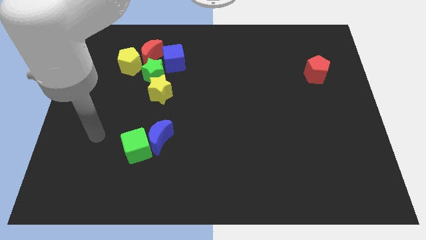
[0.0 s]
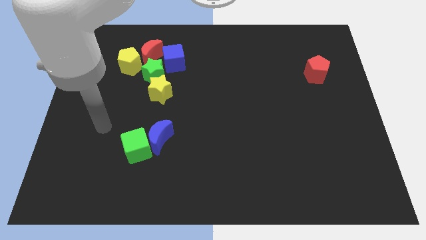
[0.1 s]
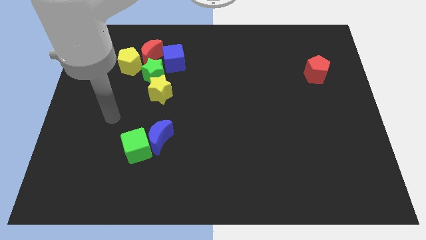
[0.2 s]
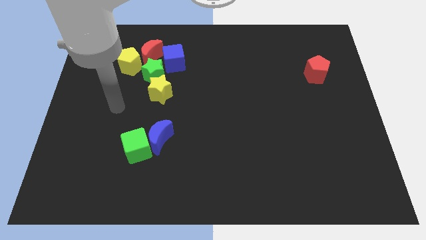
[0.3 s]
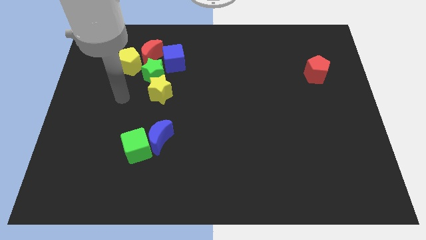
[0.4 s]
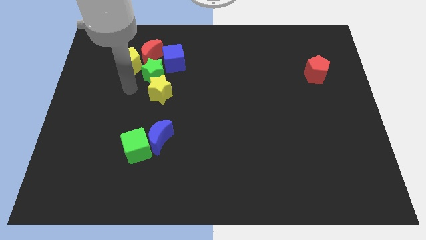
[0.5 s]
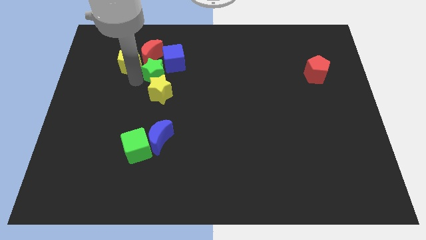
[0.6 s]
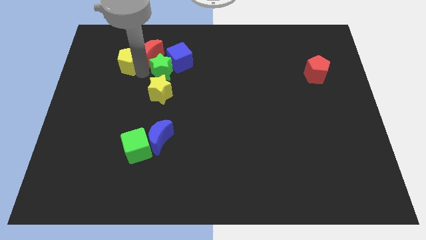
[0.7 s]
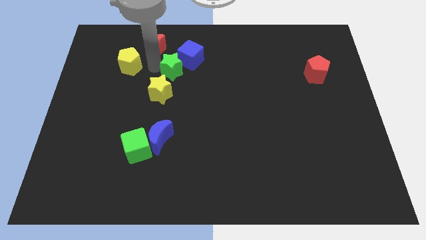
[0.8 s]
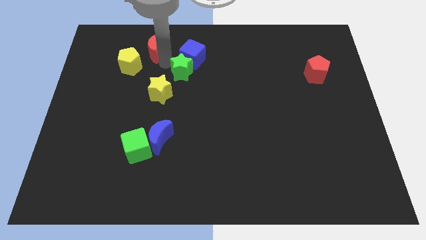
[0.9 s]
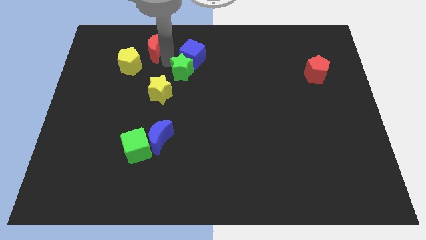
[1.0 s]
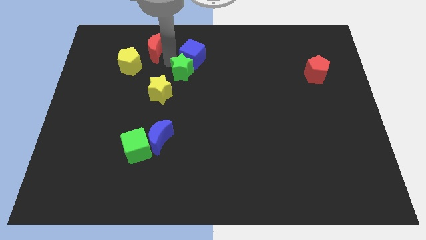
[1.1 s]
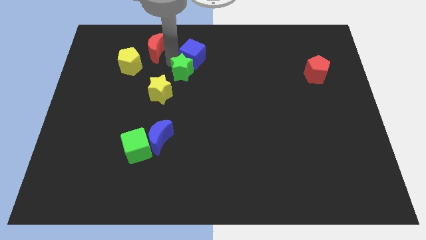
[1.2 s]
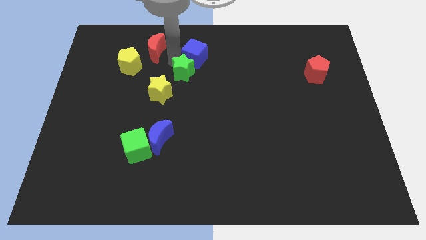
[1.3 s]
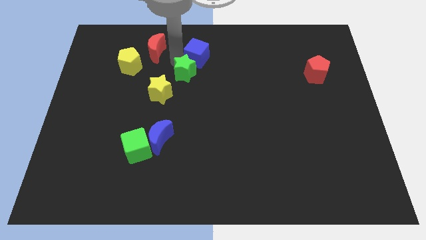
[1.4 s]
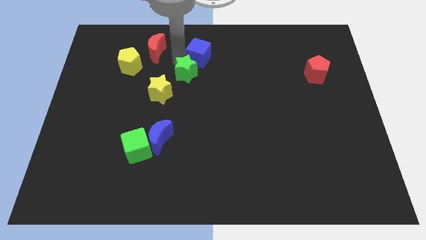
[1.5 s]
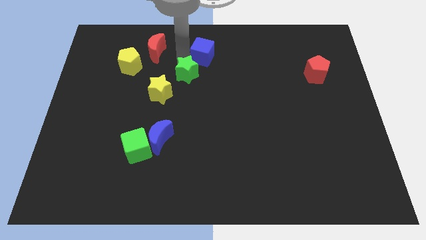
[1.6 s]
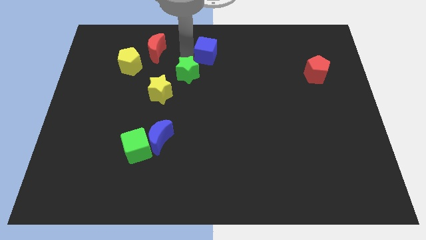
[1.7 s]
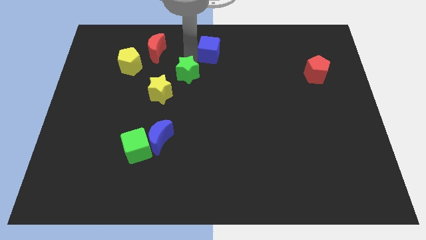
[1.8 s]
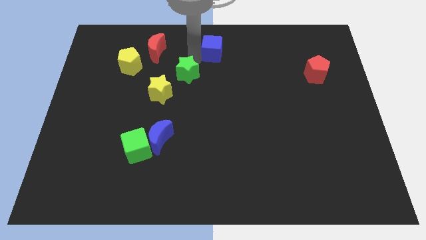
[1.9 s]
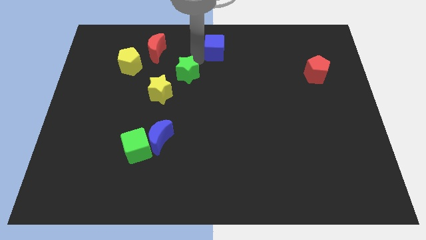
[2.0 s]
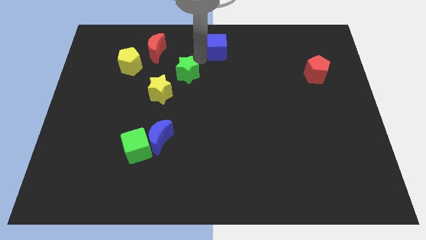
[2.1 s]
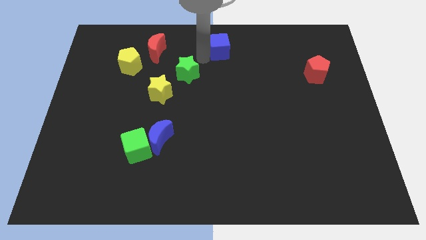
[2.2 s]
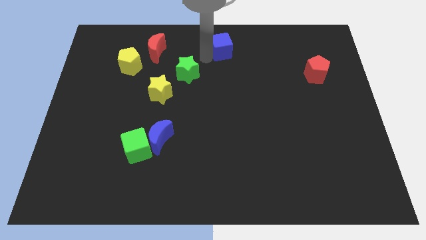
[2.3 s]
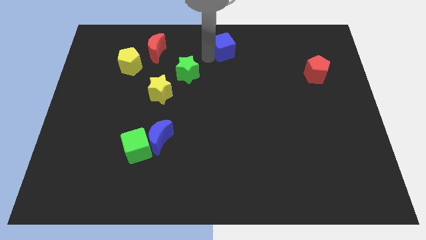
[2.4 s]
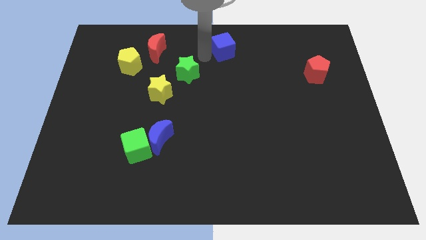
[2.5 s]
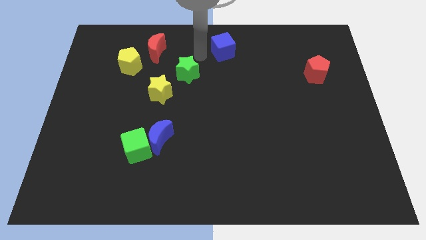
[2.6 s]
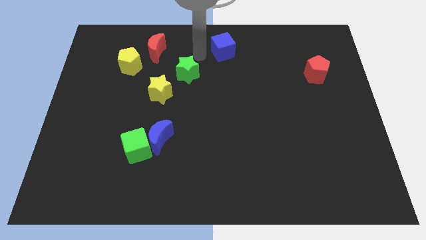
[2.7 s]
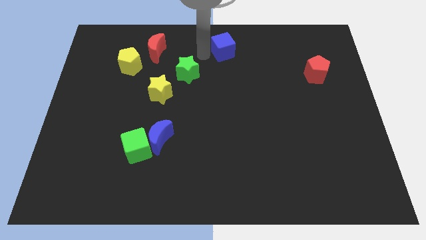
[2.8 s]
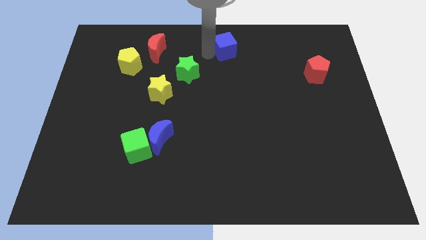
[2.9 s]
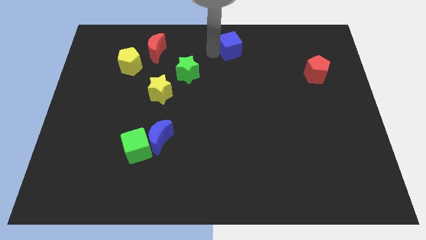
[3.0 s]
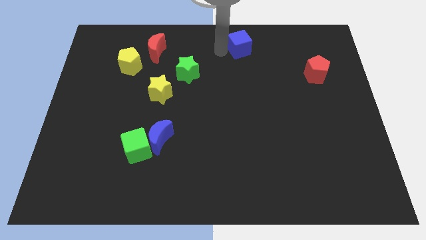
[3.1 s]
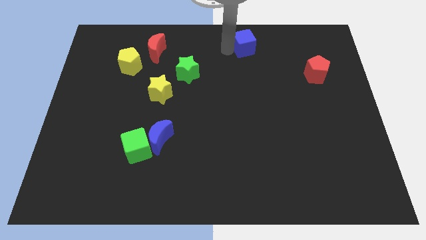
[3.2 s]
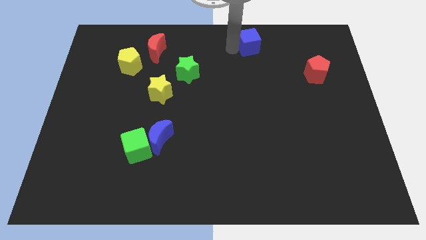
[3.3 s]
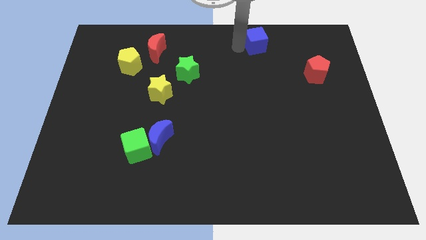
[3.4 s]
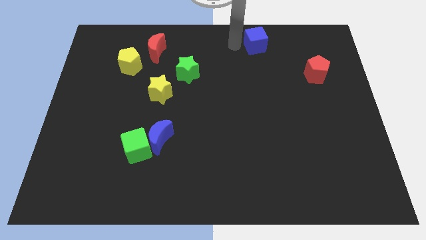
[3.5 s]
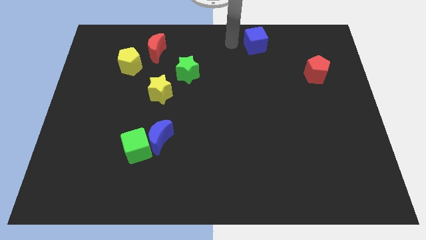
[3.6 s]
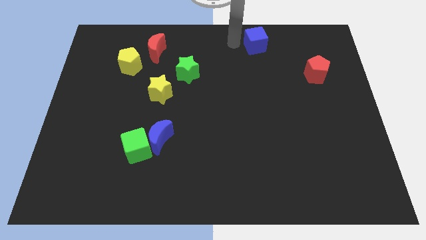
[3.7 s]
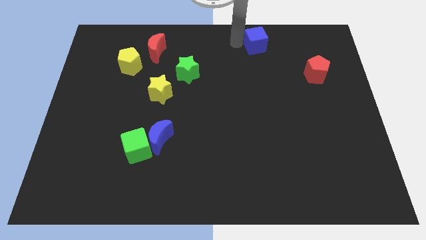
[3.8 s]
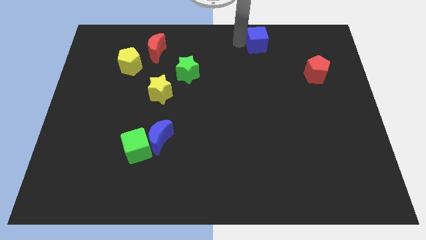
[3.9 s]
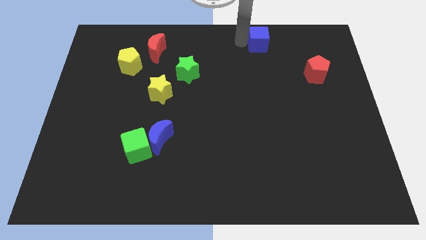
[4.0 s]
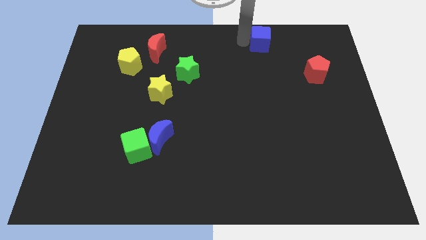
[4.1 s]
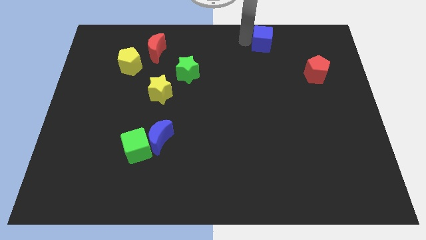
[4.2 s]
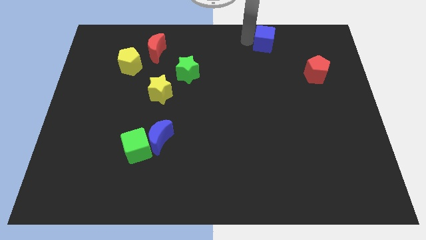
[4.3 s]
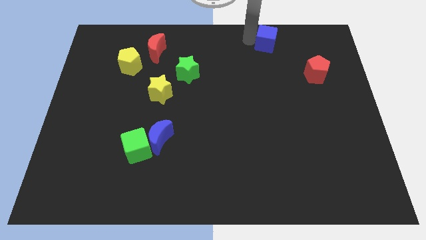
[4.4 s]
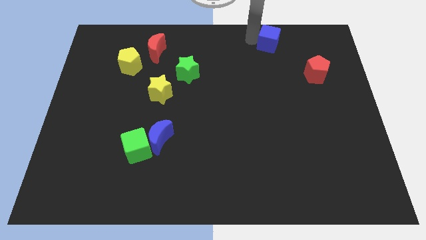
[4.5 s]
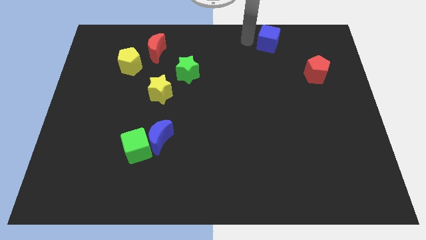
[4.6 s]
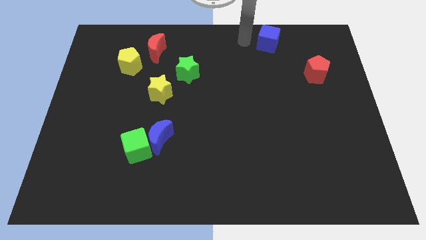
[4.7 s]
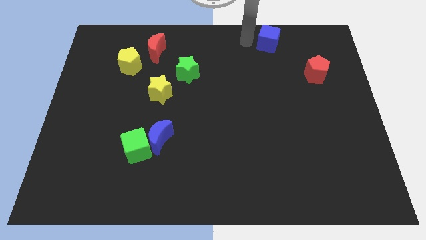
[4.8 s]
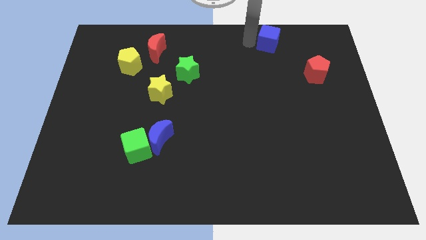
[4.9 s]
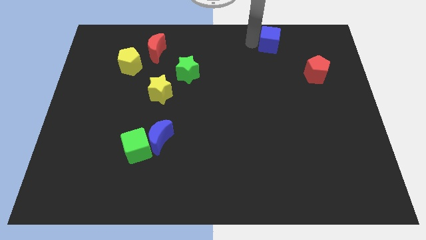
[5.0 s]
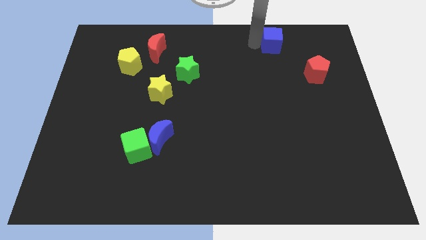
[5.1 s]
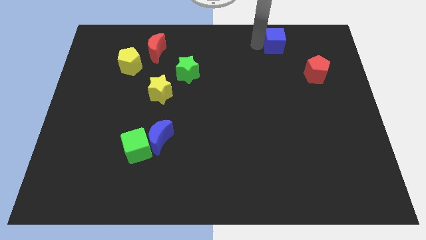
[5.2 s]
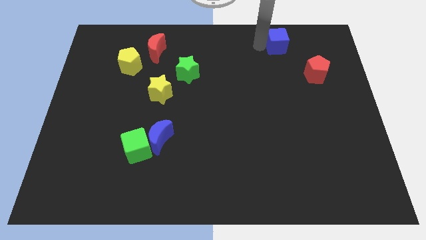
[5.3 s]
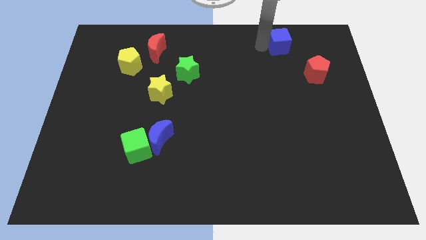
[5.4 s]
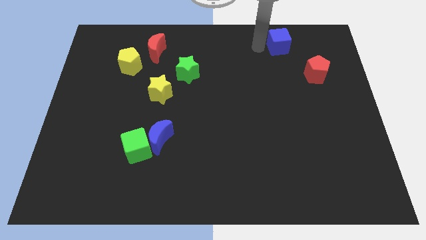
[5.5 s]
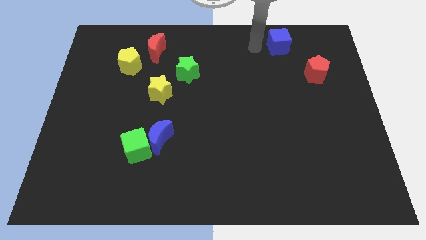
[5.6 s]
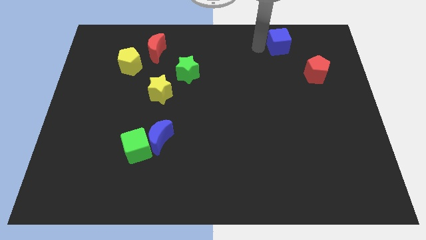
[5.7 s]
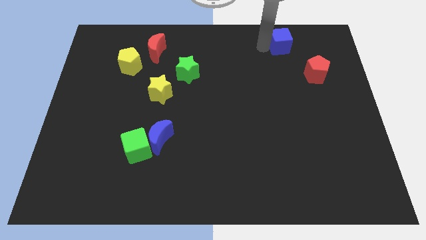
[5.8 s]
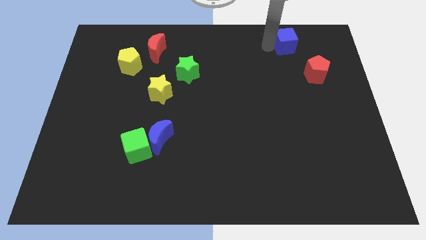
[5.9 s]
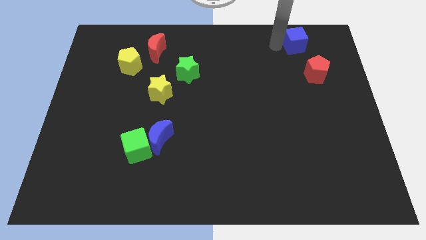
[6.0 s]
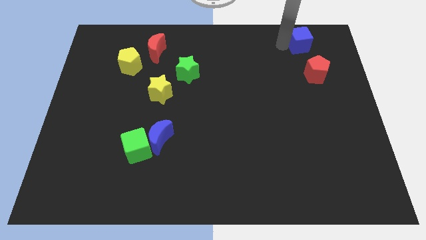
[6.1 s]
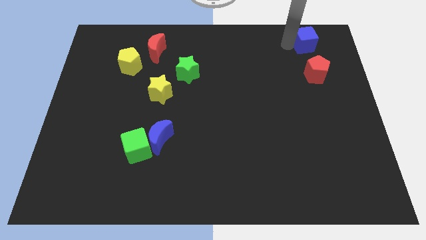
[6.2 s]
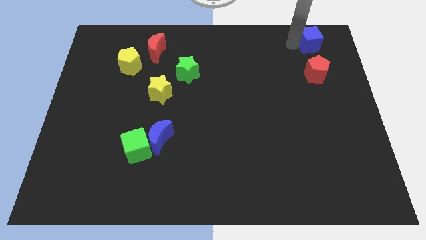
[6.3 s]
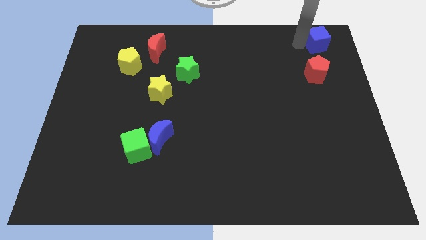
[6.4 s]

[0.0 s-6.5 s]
slide the blue cube to the top right

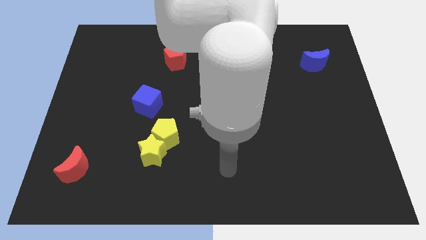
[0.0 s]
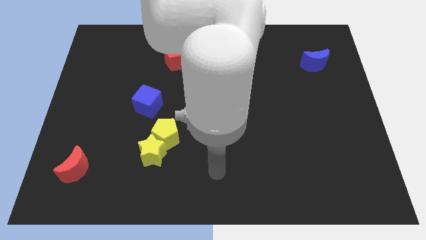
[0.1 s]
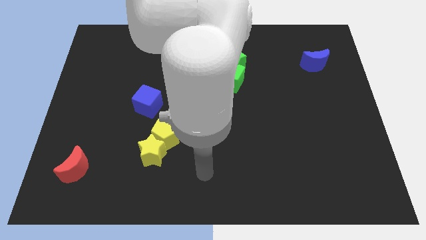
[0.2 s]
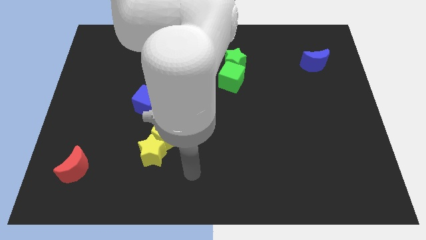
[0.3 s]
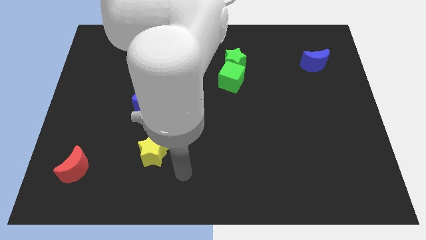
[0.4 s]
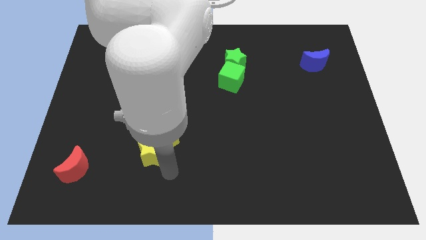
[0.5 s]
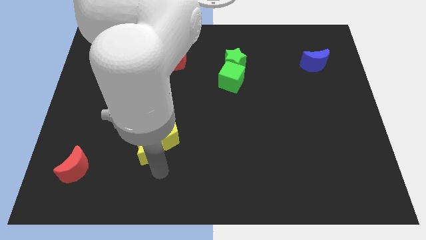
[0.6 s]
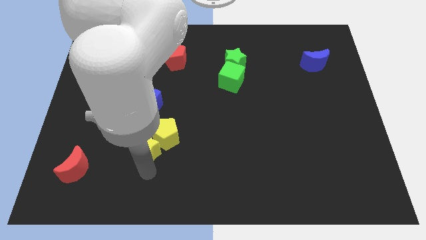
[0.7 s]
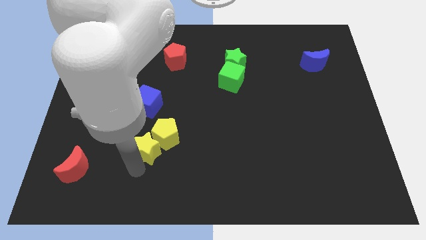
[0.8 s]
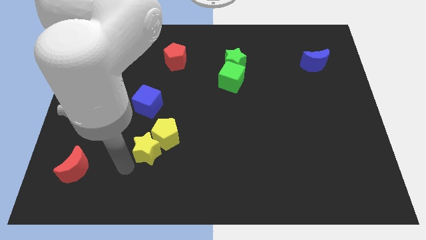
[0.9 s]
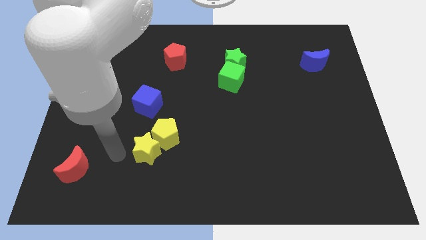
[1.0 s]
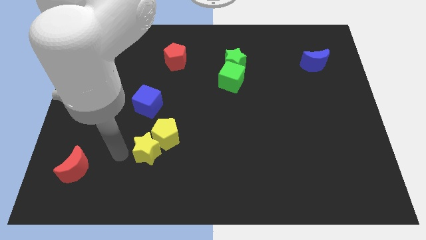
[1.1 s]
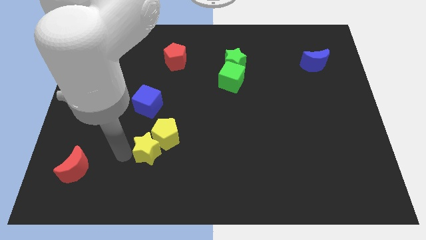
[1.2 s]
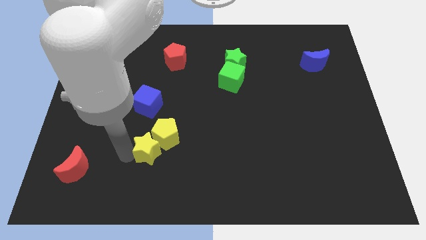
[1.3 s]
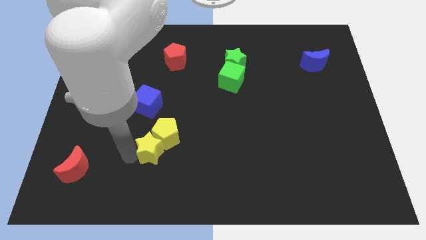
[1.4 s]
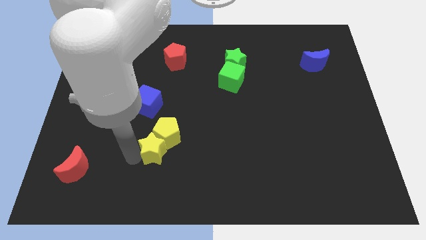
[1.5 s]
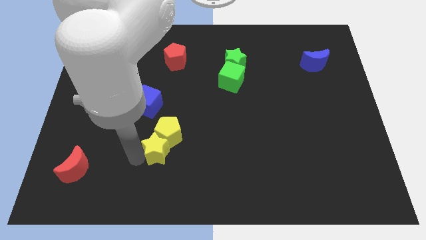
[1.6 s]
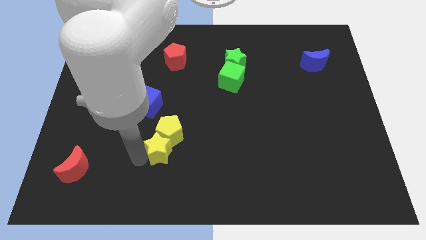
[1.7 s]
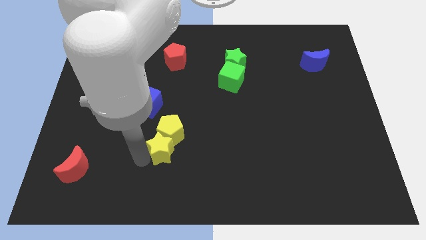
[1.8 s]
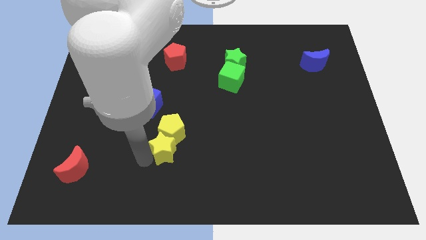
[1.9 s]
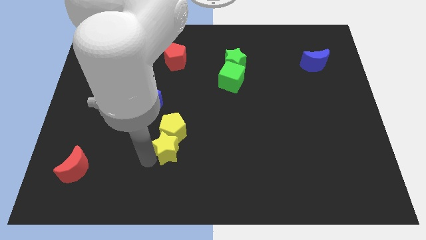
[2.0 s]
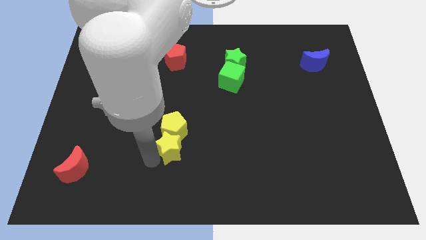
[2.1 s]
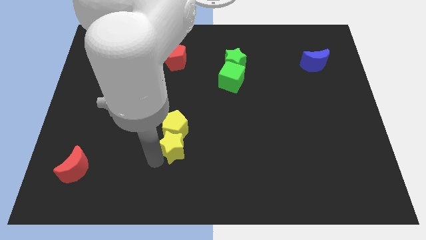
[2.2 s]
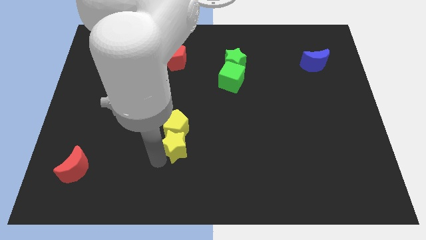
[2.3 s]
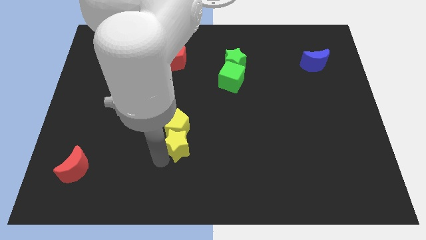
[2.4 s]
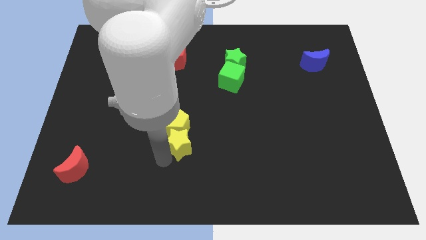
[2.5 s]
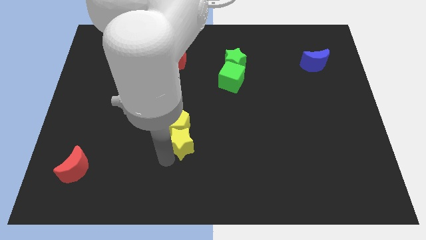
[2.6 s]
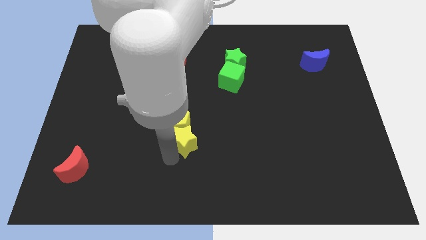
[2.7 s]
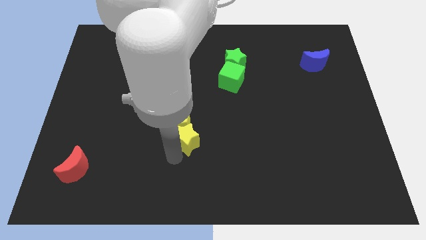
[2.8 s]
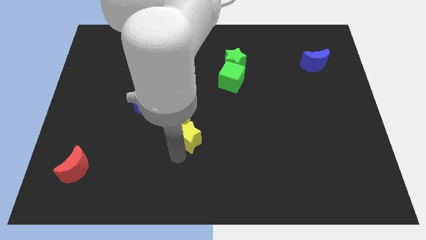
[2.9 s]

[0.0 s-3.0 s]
move the yellow star to the center of the board
